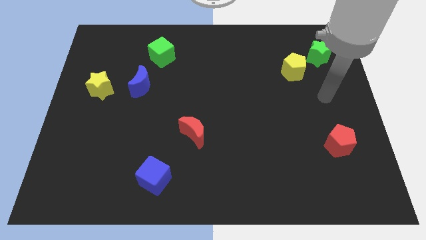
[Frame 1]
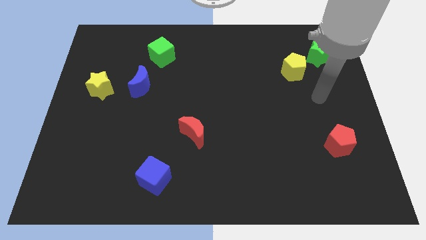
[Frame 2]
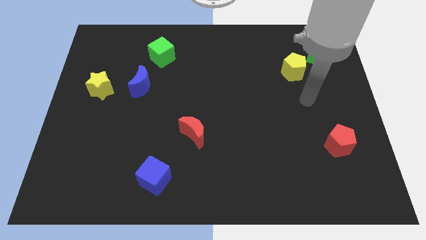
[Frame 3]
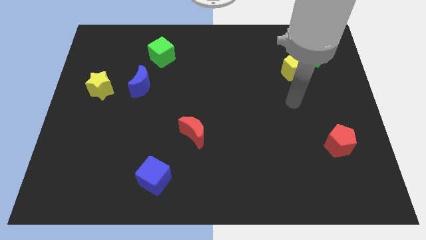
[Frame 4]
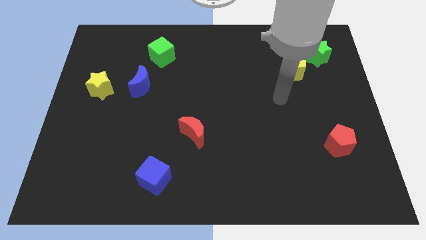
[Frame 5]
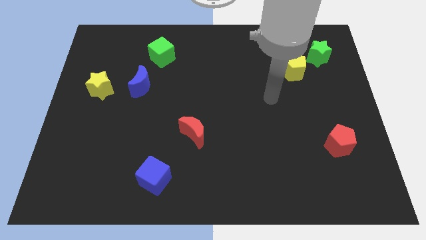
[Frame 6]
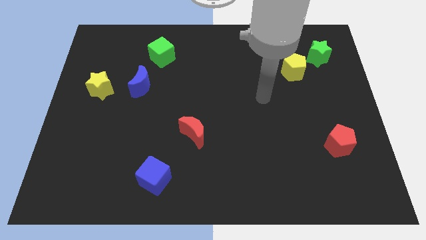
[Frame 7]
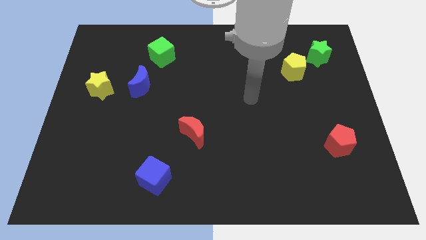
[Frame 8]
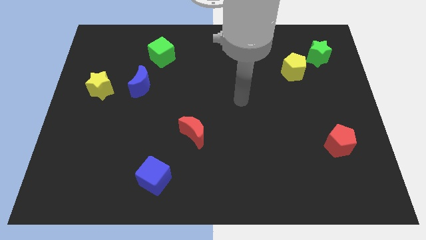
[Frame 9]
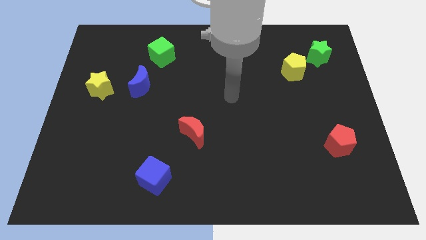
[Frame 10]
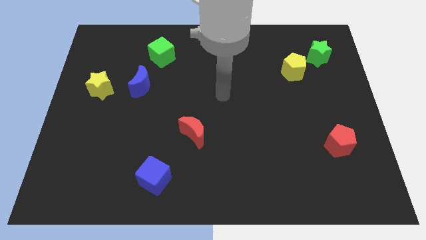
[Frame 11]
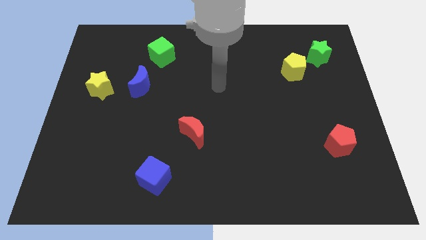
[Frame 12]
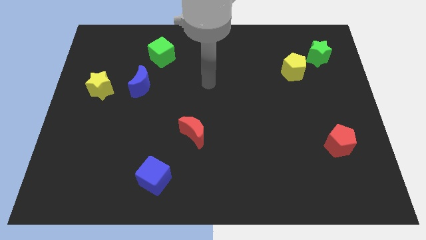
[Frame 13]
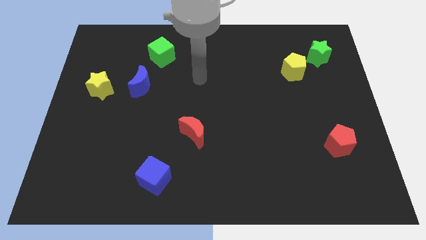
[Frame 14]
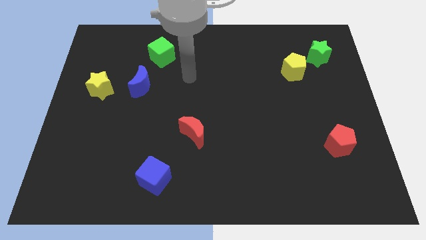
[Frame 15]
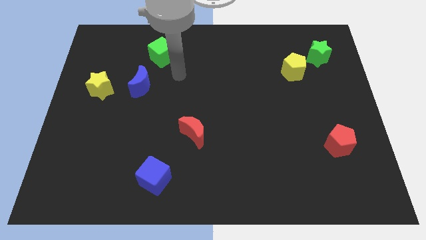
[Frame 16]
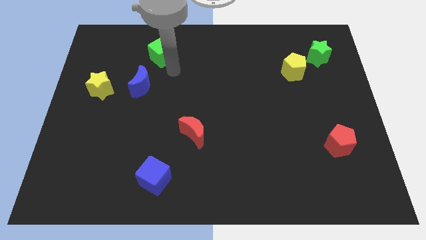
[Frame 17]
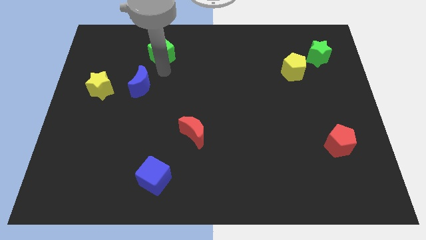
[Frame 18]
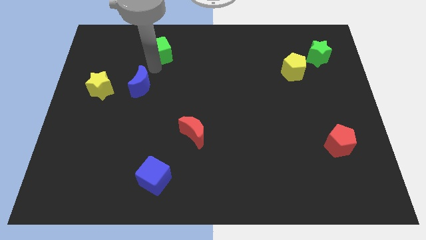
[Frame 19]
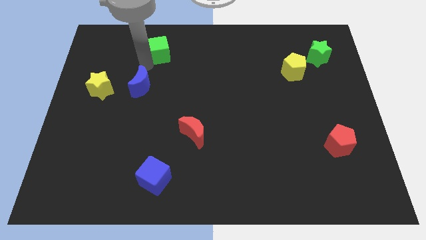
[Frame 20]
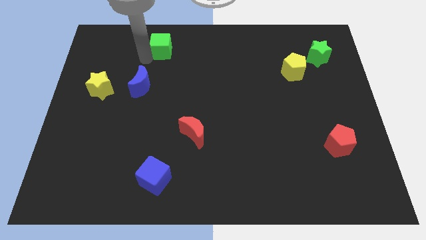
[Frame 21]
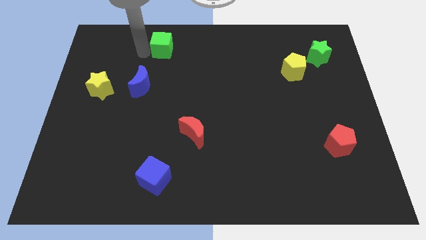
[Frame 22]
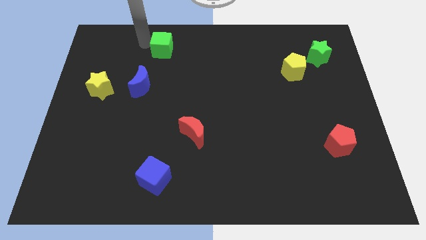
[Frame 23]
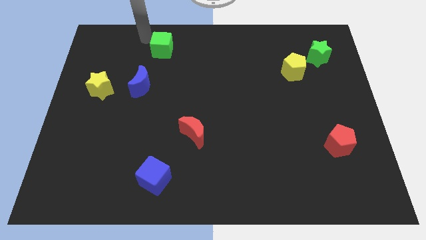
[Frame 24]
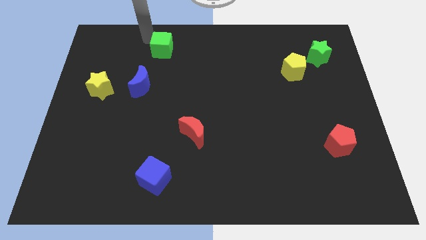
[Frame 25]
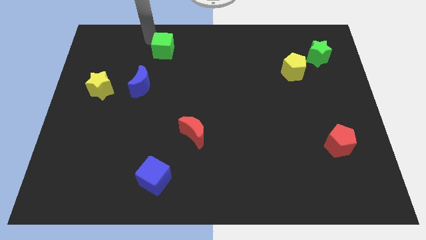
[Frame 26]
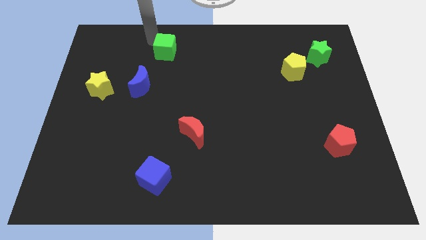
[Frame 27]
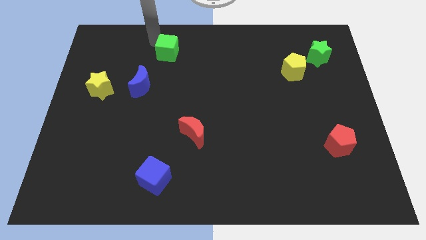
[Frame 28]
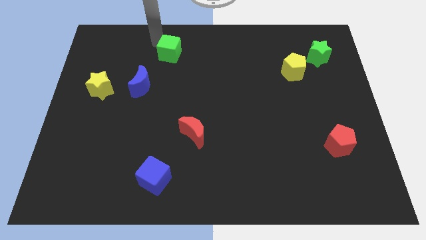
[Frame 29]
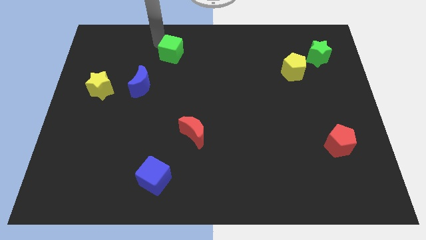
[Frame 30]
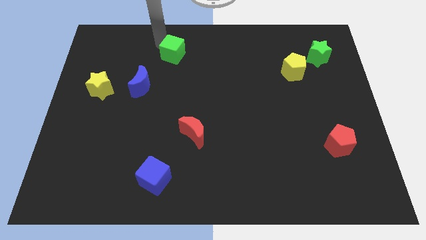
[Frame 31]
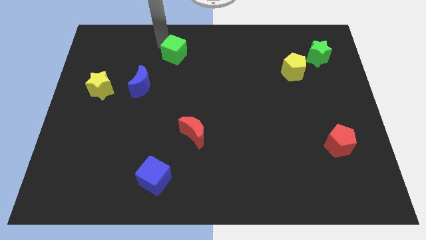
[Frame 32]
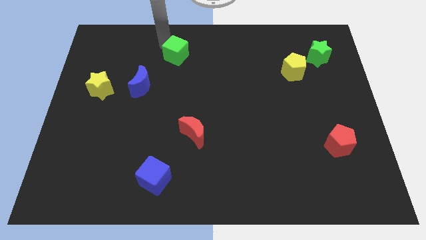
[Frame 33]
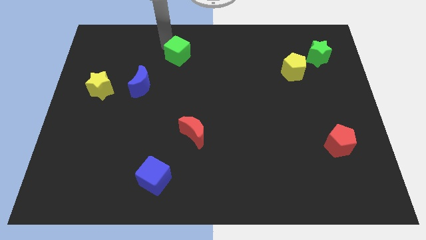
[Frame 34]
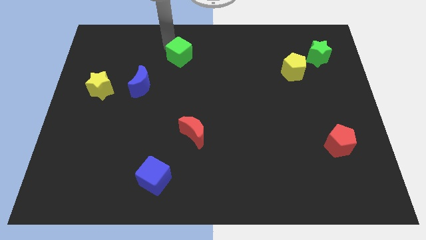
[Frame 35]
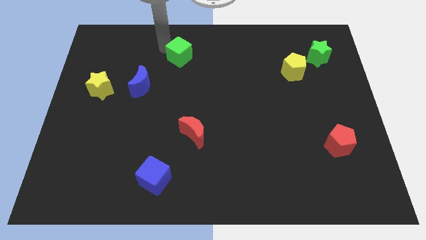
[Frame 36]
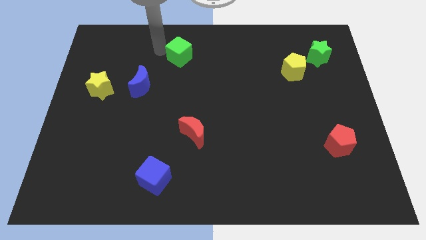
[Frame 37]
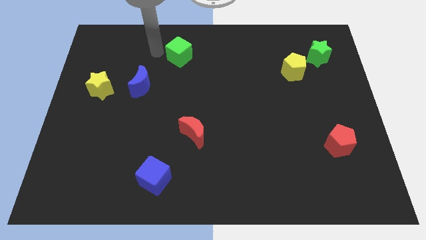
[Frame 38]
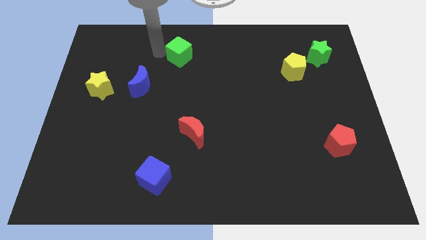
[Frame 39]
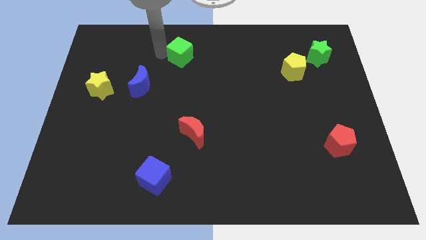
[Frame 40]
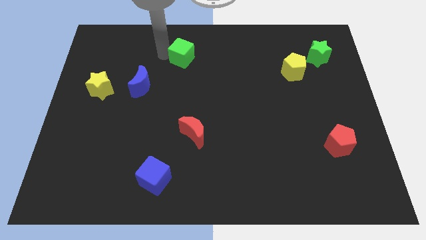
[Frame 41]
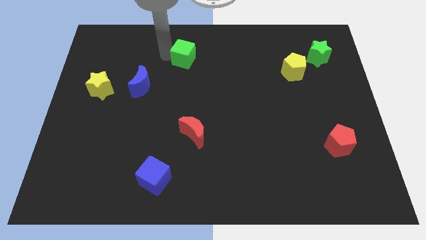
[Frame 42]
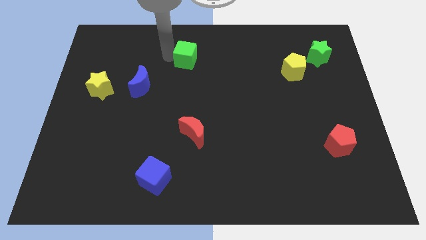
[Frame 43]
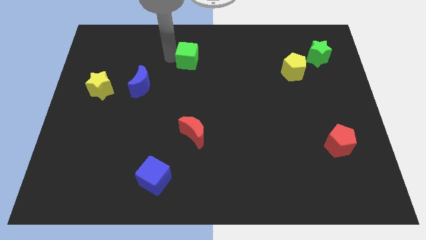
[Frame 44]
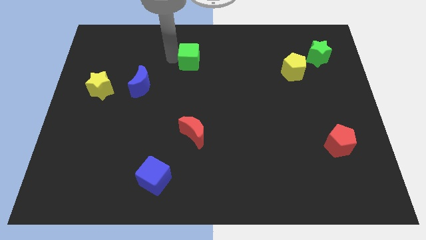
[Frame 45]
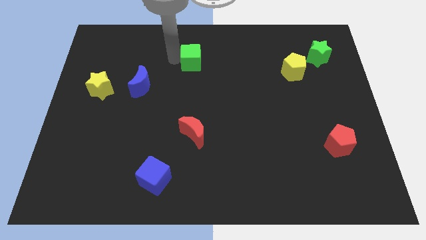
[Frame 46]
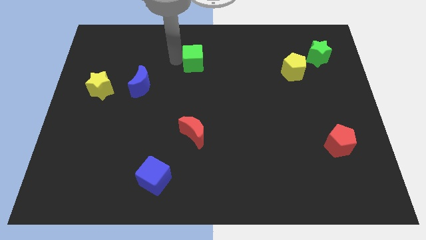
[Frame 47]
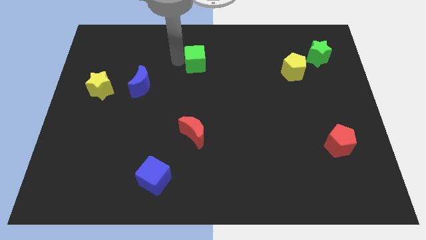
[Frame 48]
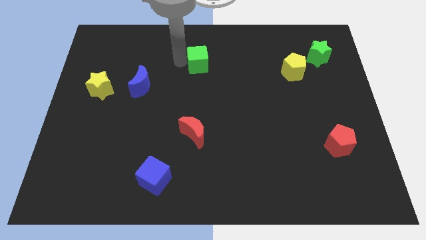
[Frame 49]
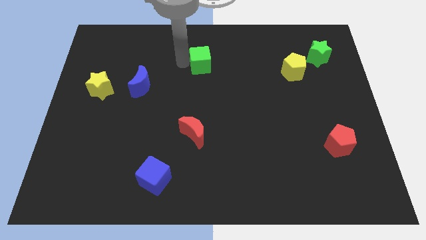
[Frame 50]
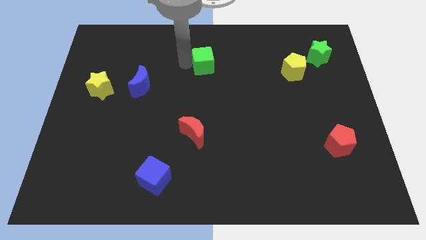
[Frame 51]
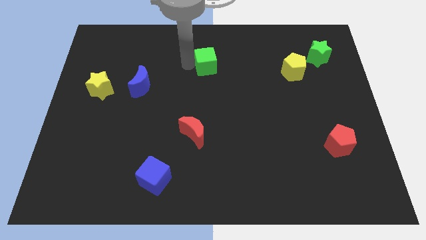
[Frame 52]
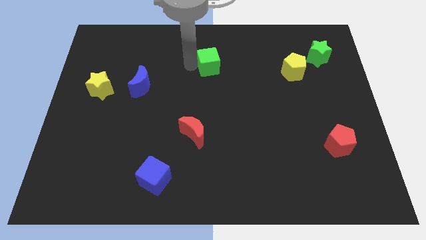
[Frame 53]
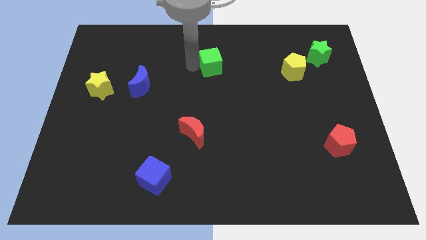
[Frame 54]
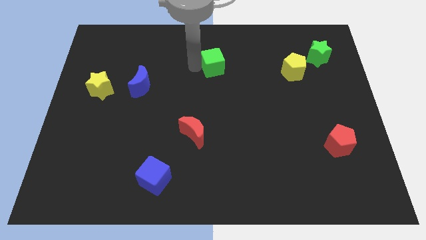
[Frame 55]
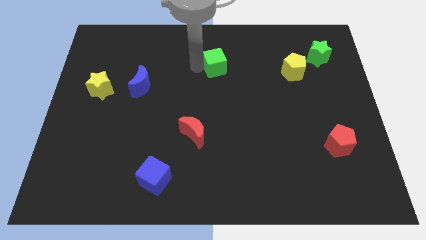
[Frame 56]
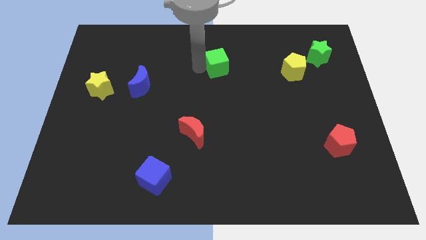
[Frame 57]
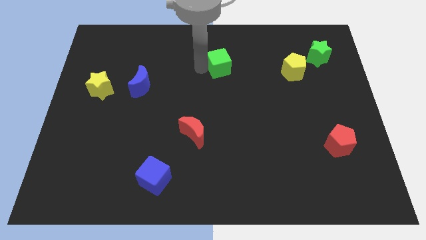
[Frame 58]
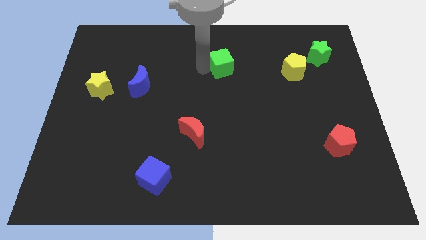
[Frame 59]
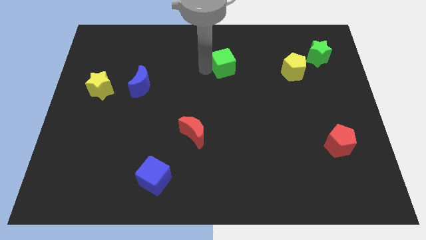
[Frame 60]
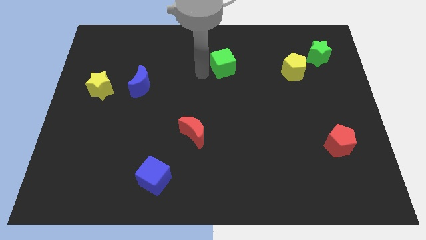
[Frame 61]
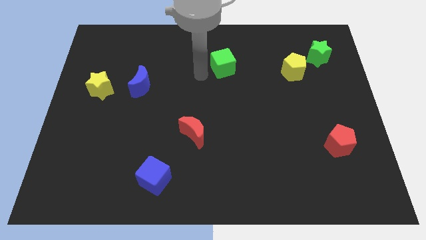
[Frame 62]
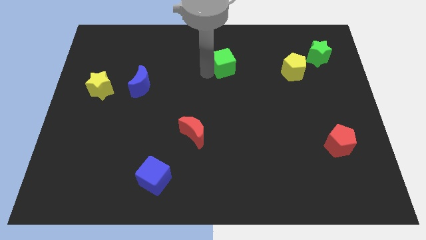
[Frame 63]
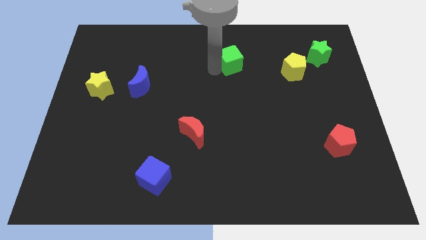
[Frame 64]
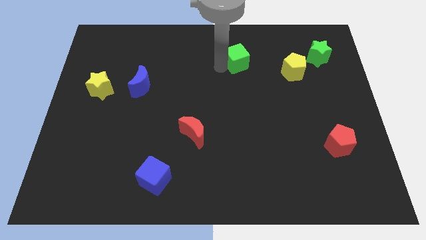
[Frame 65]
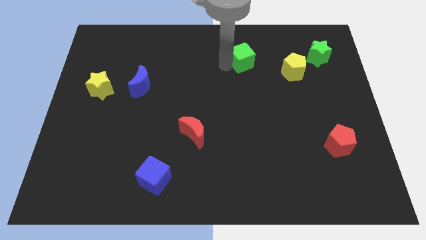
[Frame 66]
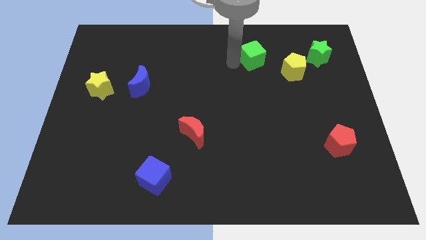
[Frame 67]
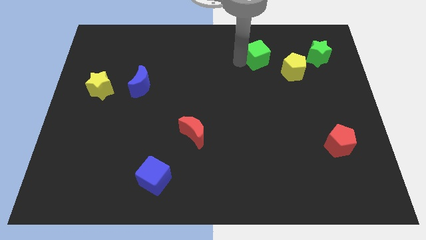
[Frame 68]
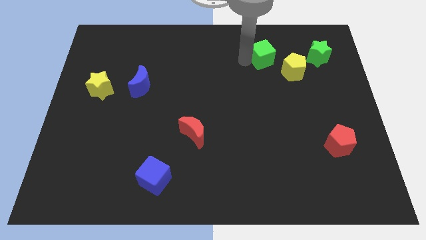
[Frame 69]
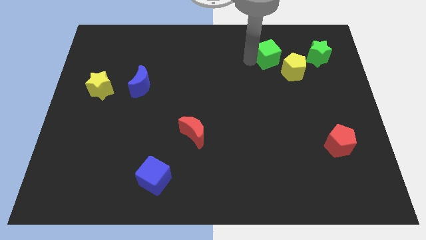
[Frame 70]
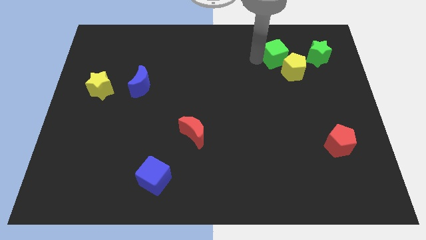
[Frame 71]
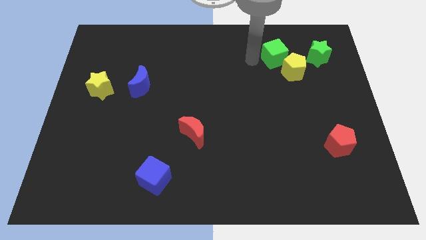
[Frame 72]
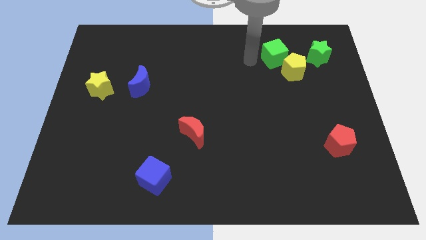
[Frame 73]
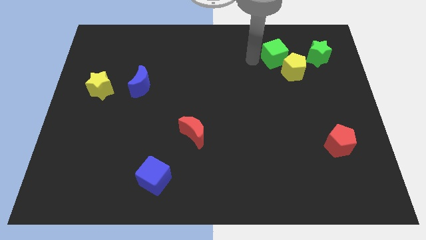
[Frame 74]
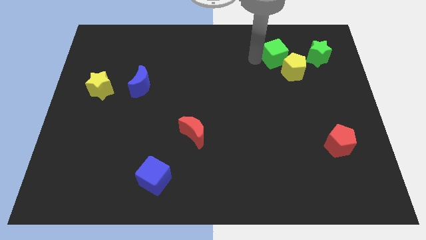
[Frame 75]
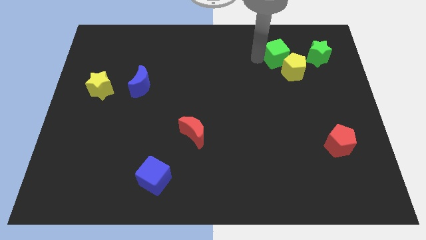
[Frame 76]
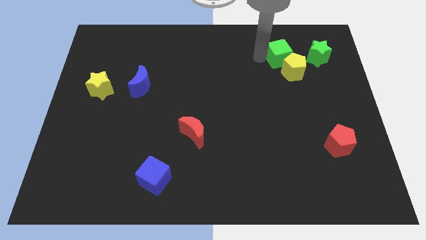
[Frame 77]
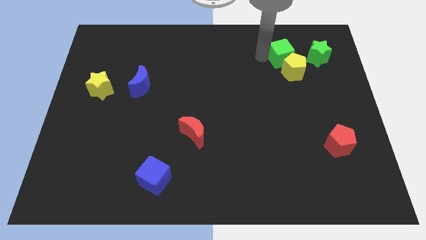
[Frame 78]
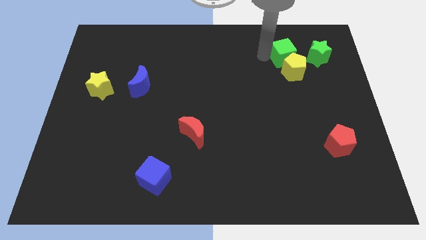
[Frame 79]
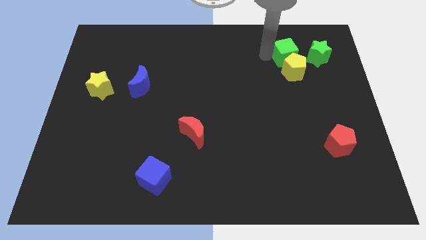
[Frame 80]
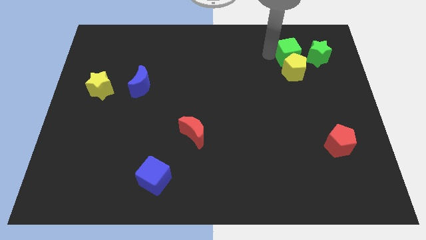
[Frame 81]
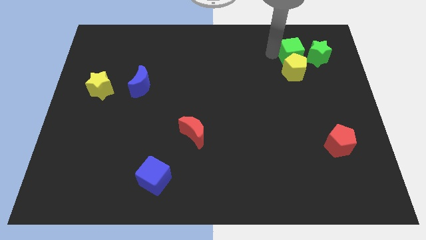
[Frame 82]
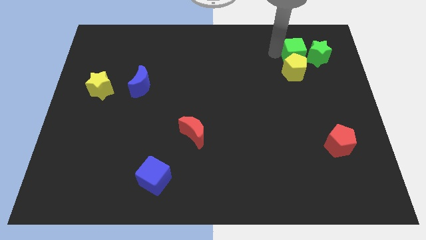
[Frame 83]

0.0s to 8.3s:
move the green cube close to the green star
